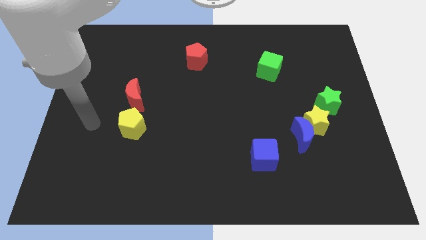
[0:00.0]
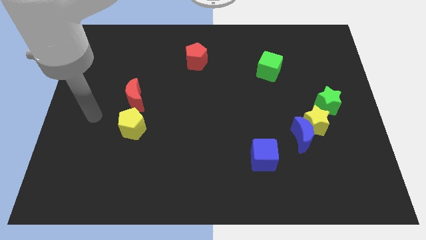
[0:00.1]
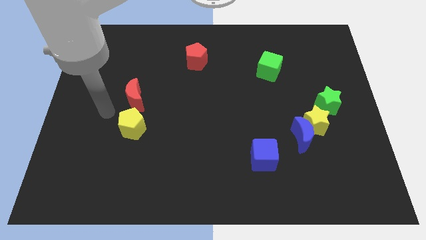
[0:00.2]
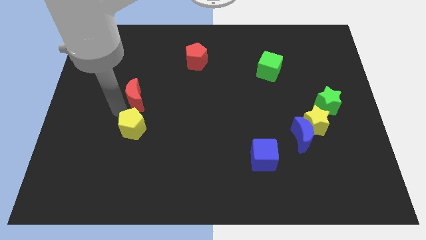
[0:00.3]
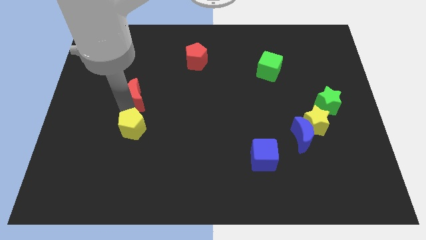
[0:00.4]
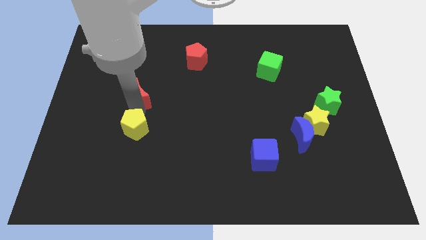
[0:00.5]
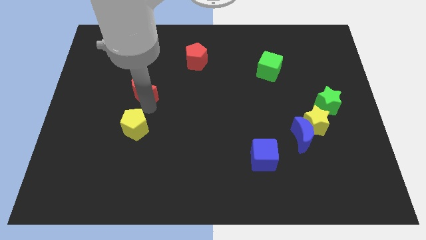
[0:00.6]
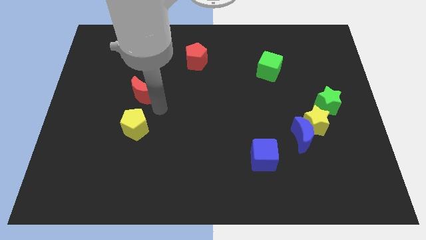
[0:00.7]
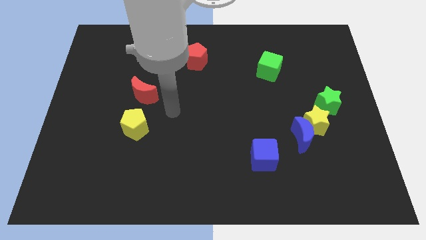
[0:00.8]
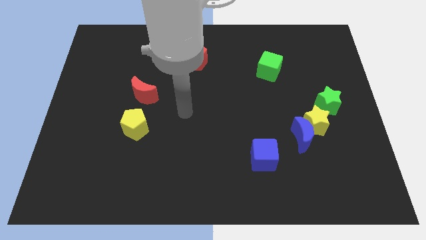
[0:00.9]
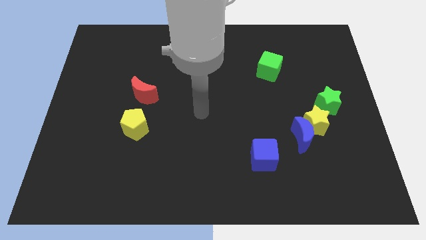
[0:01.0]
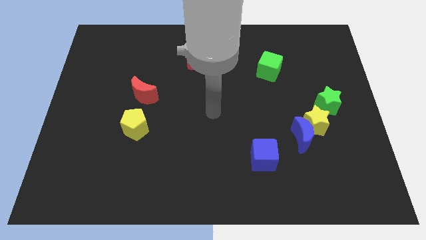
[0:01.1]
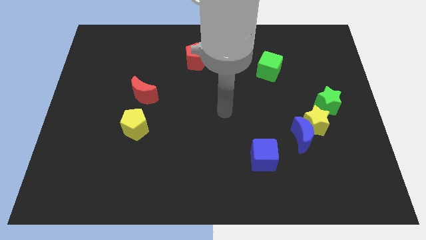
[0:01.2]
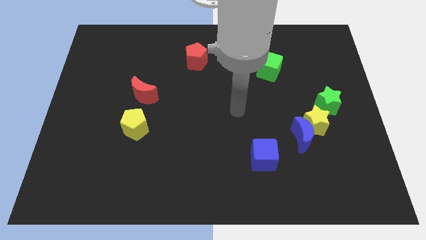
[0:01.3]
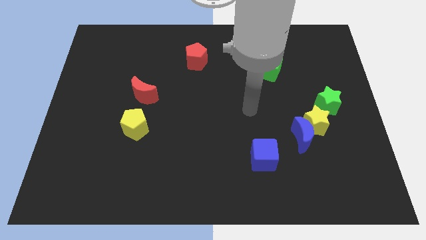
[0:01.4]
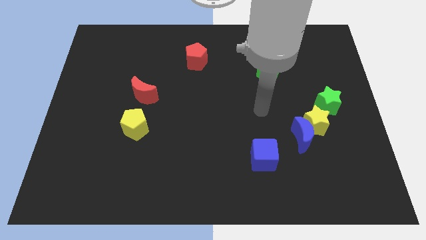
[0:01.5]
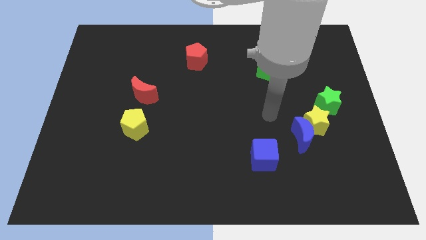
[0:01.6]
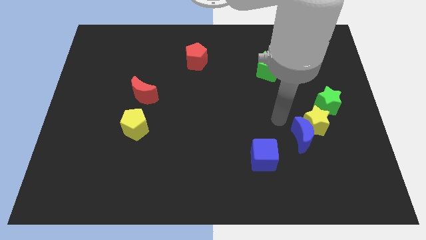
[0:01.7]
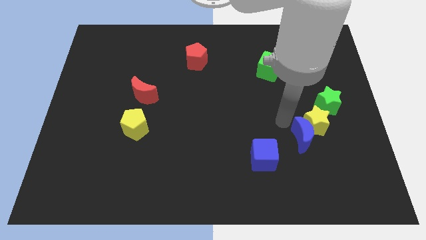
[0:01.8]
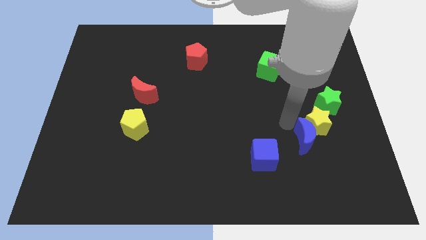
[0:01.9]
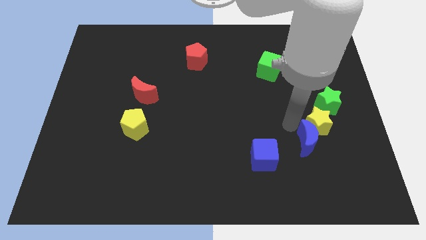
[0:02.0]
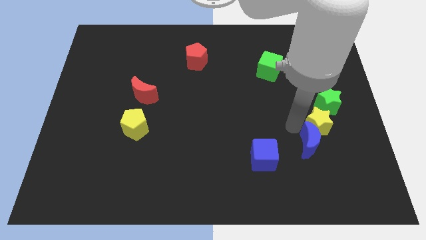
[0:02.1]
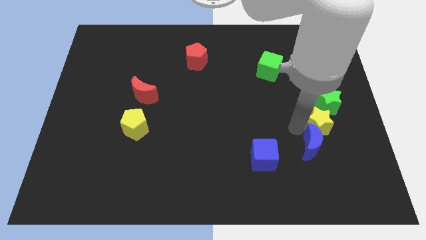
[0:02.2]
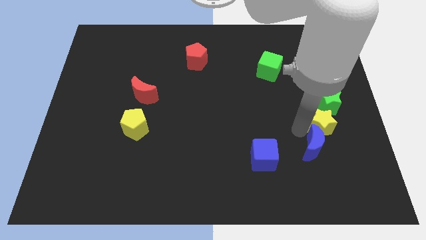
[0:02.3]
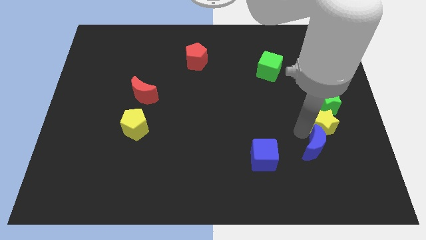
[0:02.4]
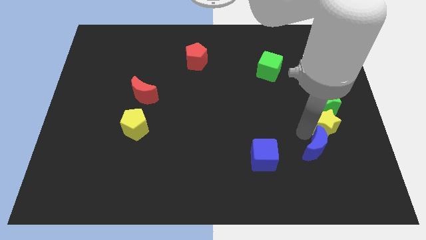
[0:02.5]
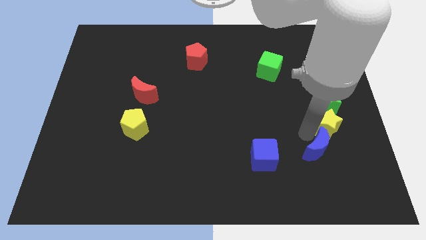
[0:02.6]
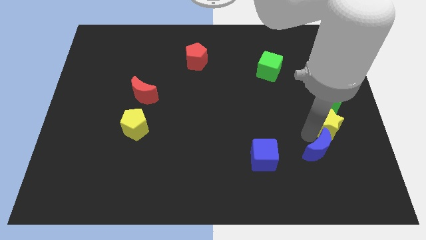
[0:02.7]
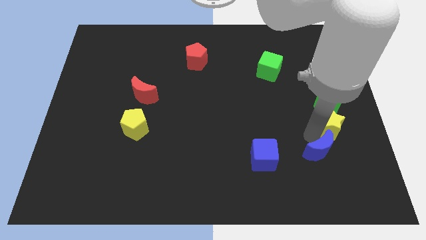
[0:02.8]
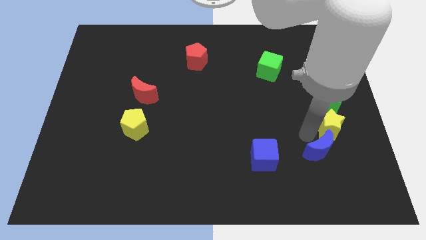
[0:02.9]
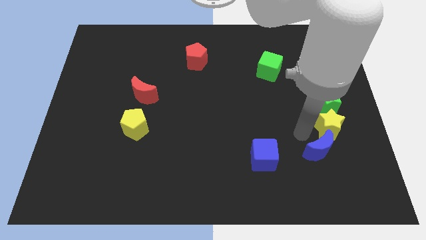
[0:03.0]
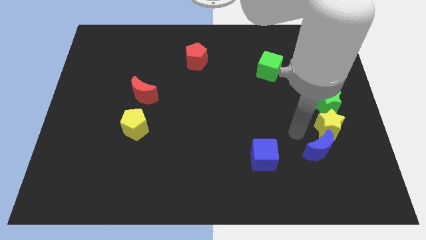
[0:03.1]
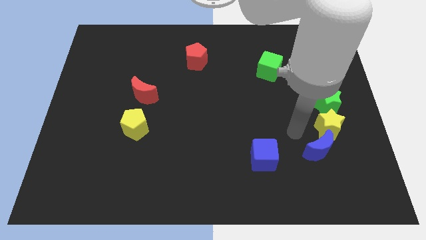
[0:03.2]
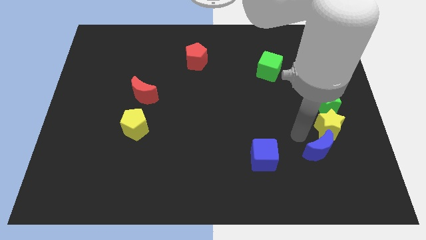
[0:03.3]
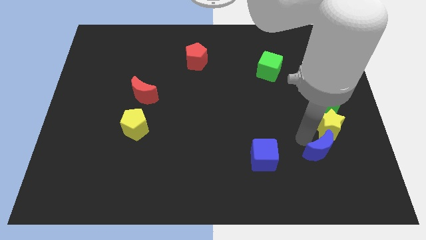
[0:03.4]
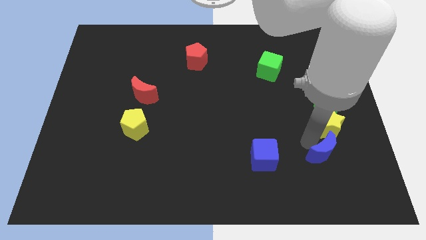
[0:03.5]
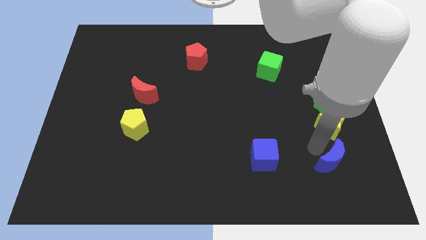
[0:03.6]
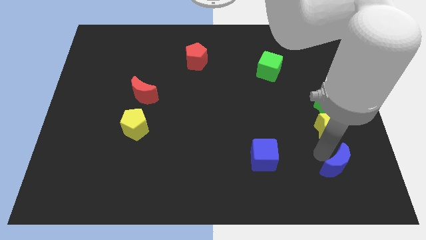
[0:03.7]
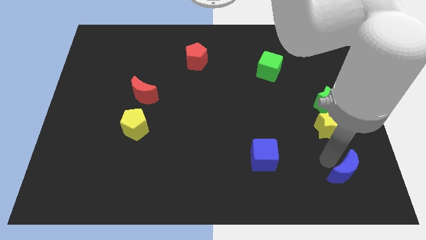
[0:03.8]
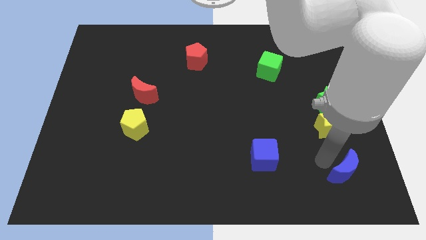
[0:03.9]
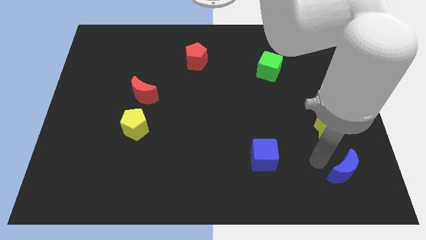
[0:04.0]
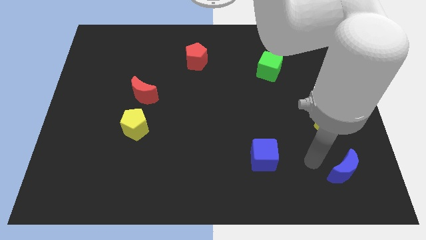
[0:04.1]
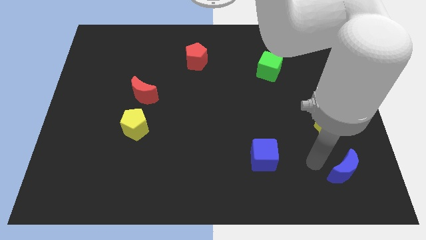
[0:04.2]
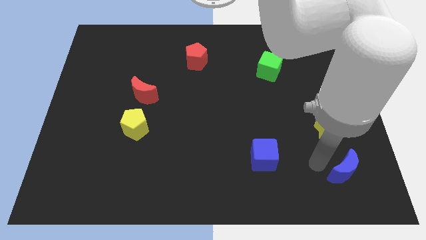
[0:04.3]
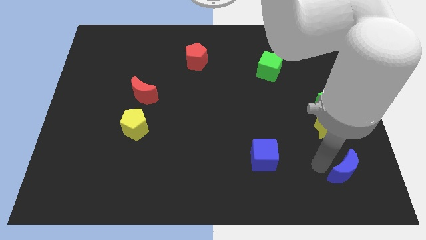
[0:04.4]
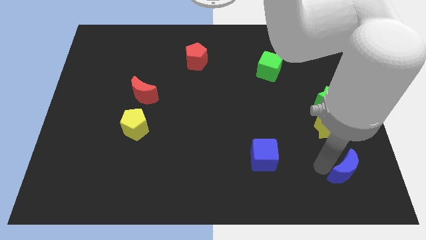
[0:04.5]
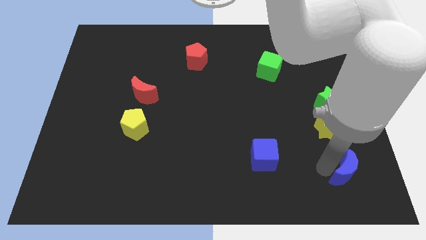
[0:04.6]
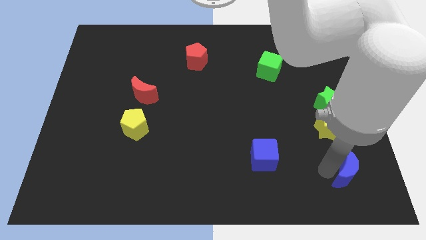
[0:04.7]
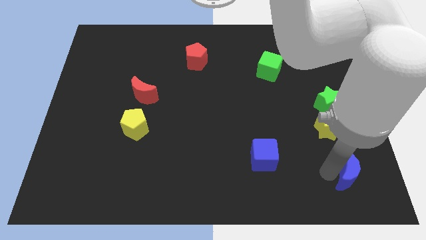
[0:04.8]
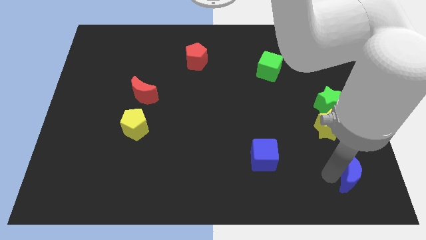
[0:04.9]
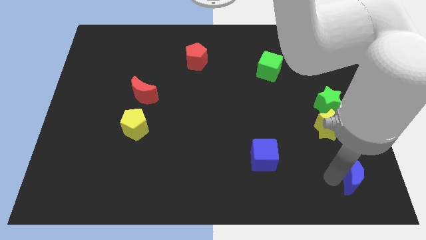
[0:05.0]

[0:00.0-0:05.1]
push the blue moon to the bottom right of the board

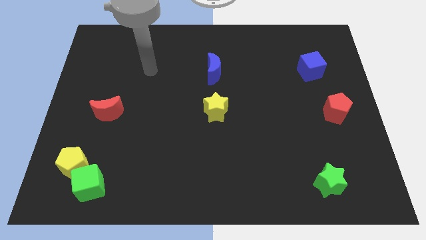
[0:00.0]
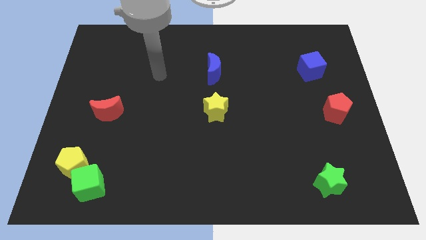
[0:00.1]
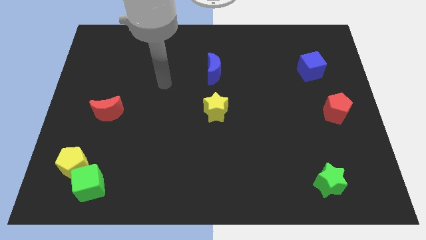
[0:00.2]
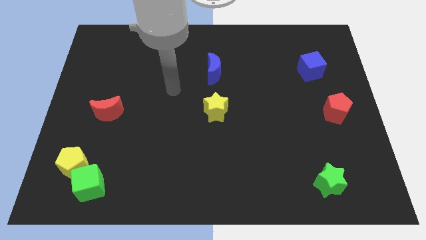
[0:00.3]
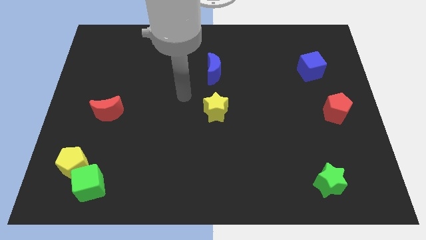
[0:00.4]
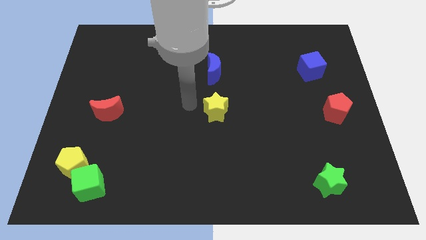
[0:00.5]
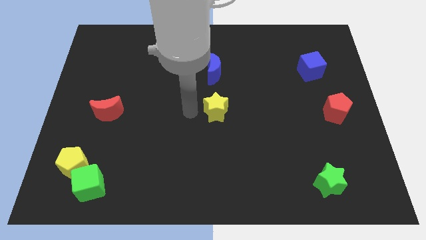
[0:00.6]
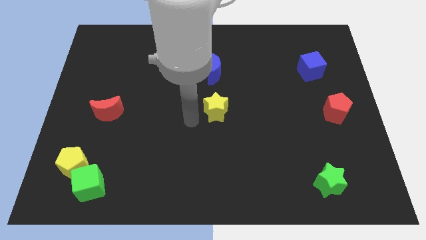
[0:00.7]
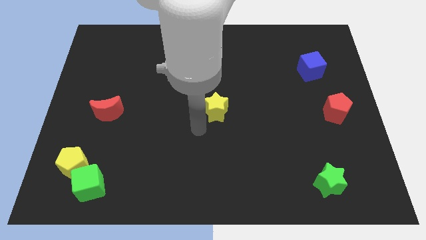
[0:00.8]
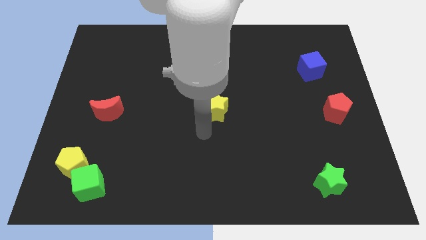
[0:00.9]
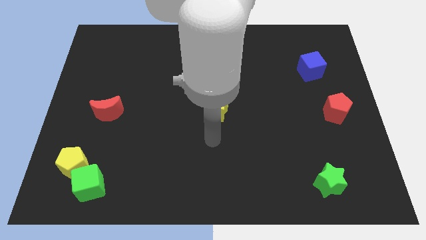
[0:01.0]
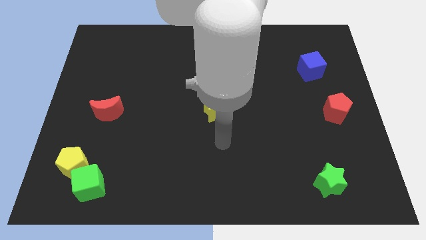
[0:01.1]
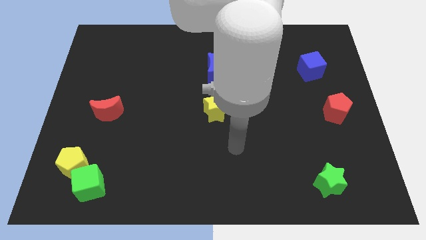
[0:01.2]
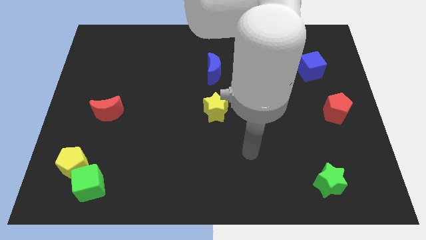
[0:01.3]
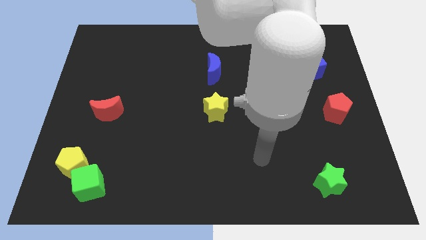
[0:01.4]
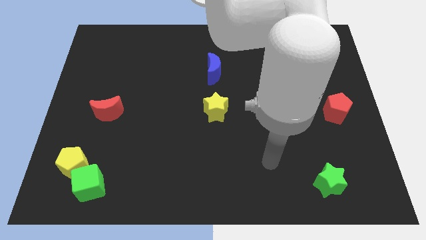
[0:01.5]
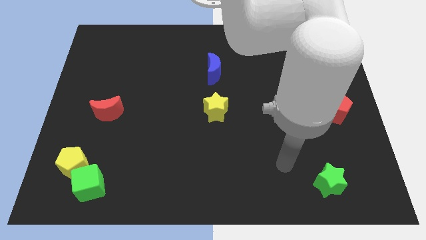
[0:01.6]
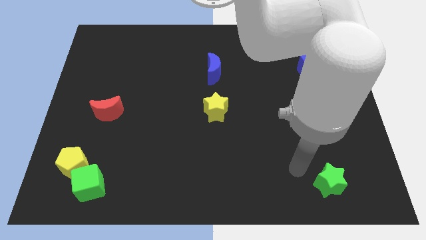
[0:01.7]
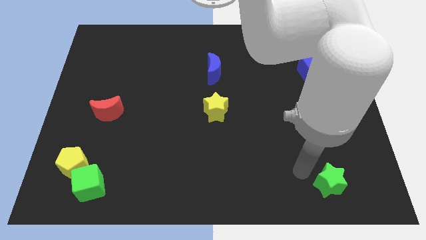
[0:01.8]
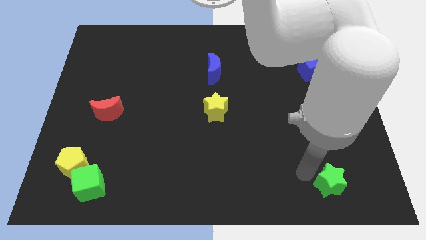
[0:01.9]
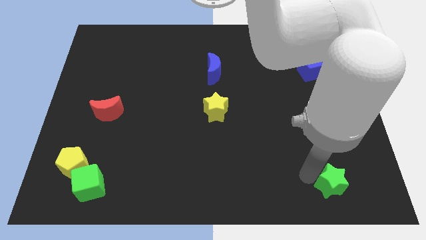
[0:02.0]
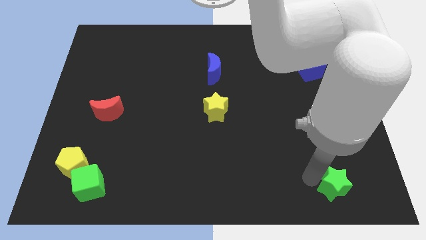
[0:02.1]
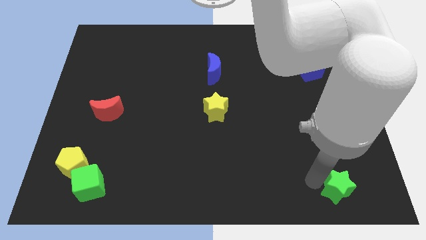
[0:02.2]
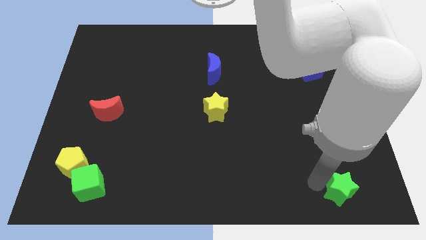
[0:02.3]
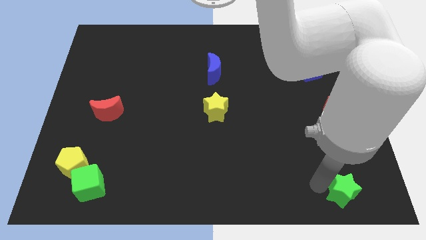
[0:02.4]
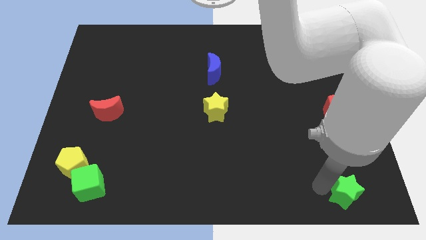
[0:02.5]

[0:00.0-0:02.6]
move the green star to the bottom right corner

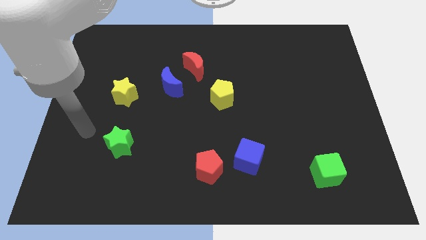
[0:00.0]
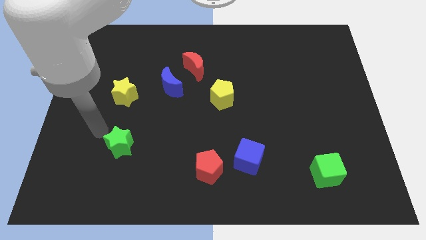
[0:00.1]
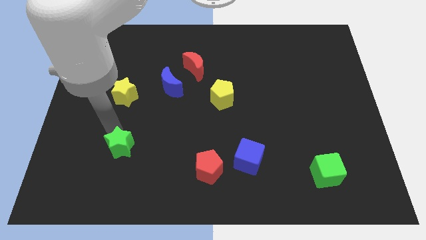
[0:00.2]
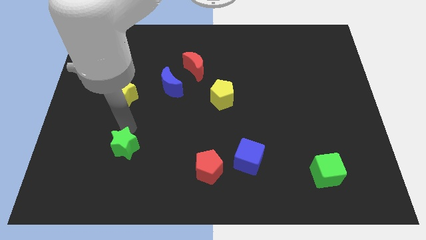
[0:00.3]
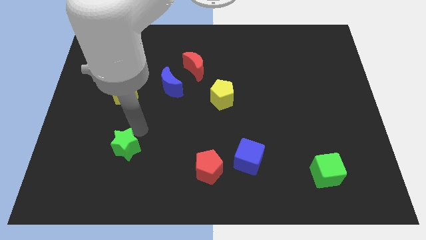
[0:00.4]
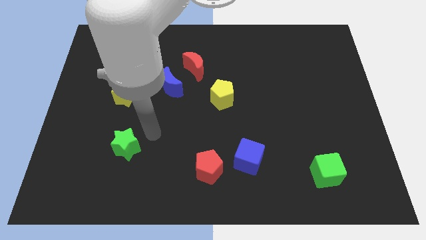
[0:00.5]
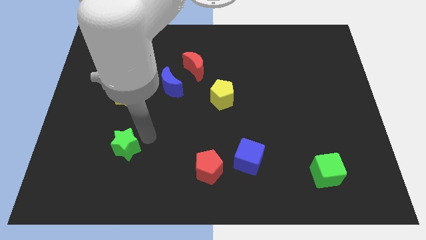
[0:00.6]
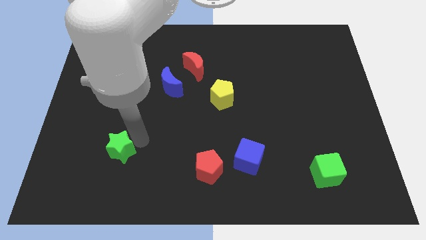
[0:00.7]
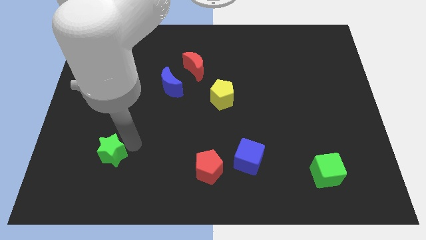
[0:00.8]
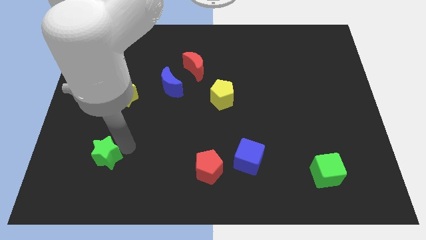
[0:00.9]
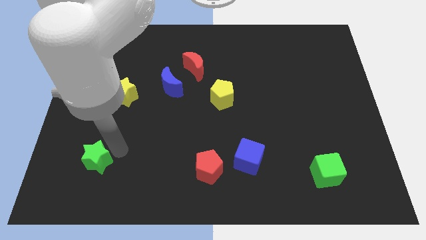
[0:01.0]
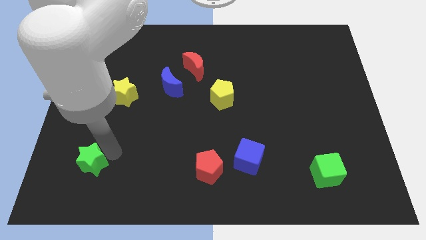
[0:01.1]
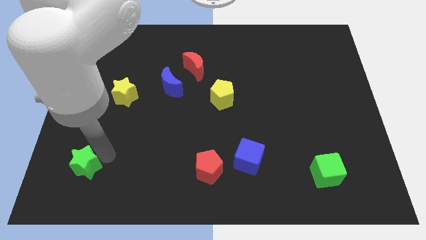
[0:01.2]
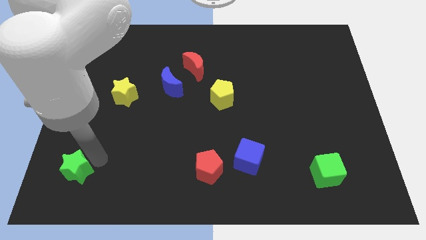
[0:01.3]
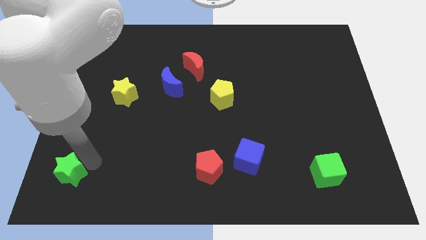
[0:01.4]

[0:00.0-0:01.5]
slide the green star to the bottom left of the board
